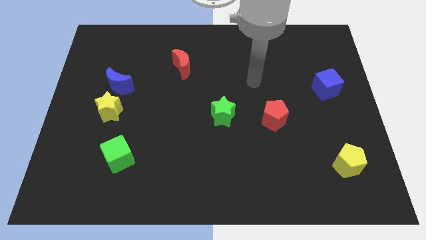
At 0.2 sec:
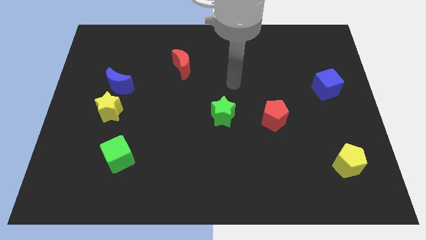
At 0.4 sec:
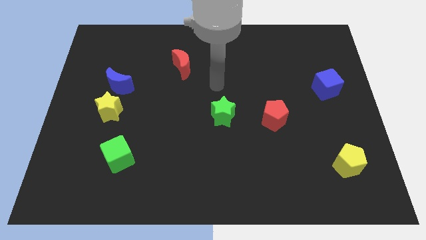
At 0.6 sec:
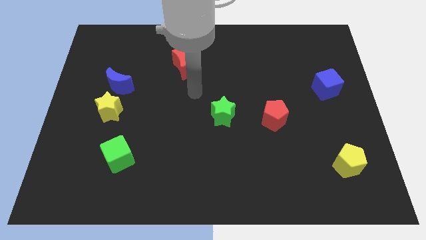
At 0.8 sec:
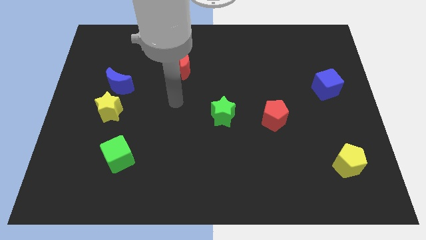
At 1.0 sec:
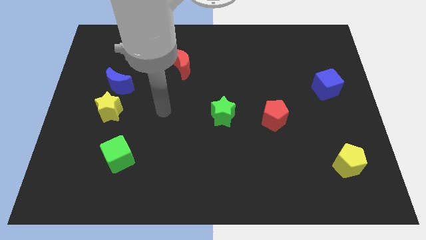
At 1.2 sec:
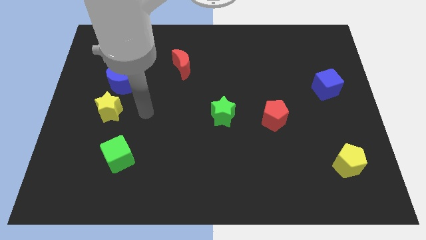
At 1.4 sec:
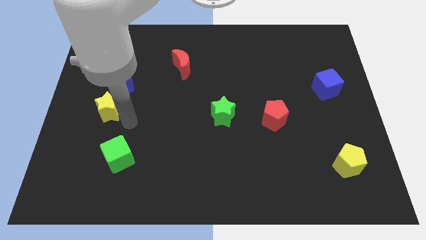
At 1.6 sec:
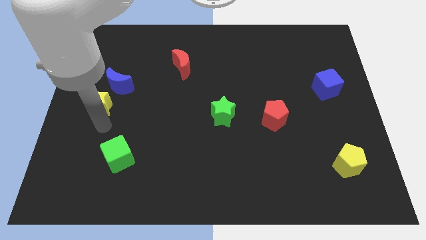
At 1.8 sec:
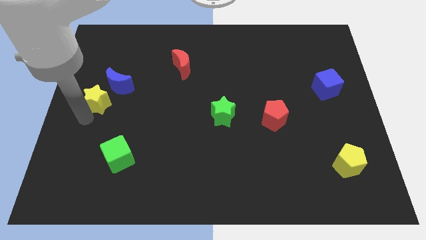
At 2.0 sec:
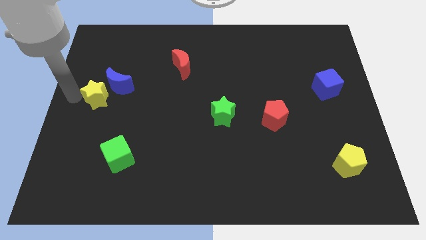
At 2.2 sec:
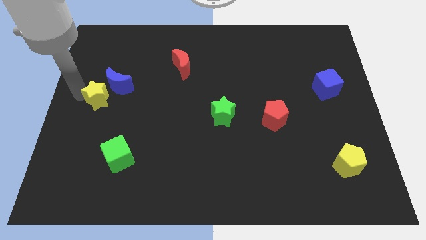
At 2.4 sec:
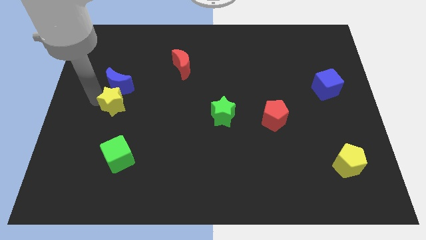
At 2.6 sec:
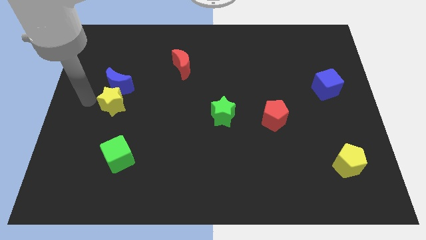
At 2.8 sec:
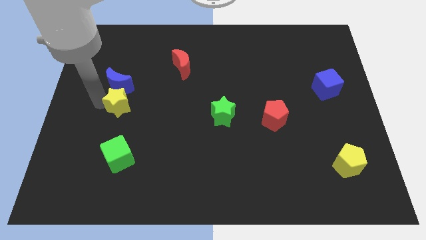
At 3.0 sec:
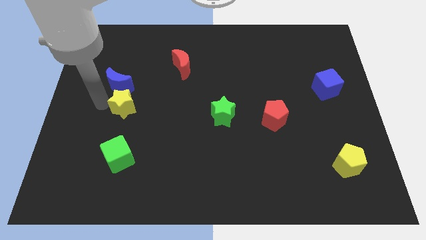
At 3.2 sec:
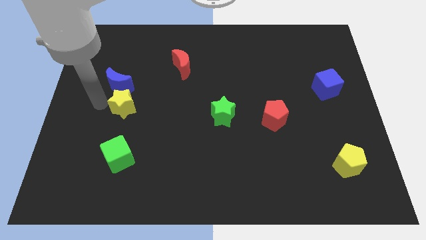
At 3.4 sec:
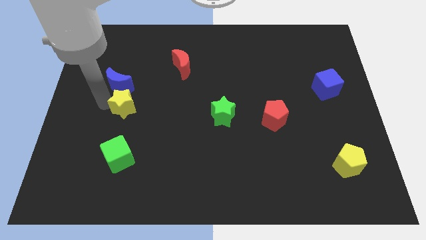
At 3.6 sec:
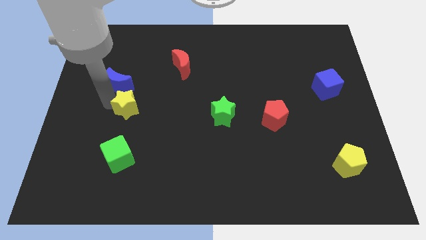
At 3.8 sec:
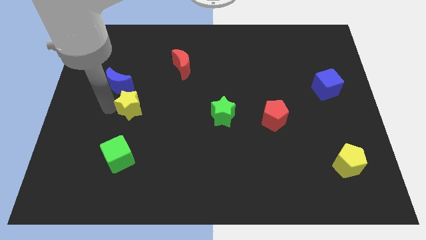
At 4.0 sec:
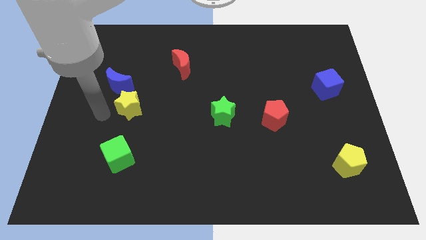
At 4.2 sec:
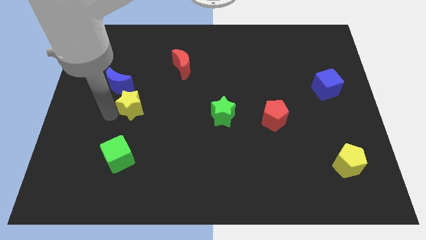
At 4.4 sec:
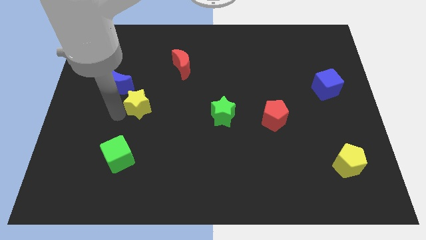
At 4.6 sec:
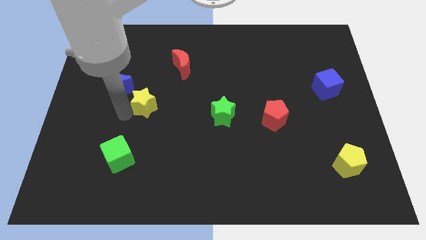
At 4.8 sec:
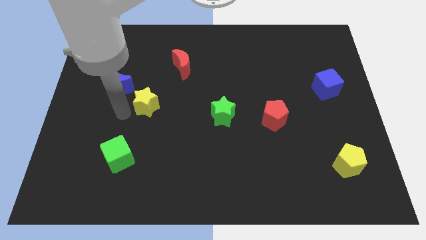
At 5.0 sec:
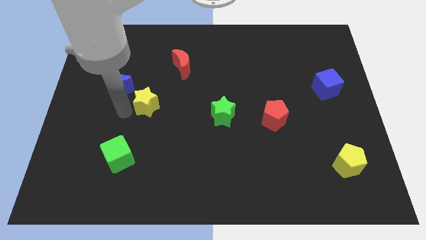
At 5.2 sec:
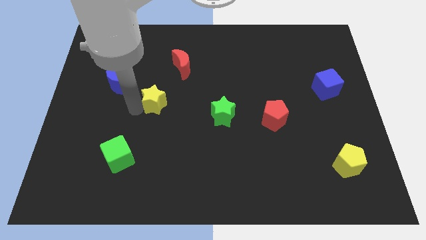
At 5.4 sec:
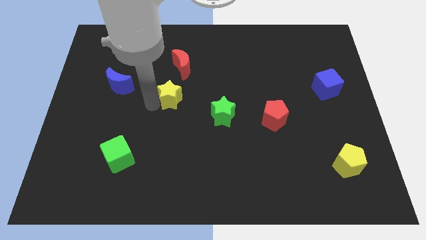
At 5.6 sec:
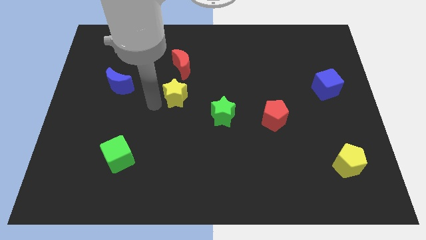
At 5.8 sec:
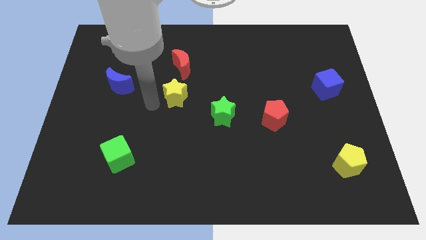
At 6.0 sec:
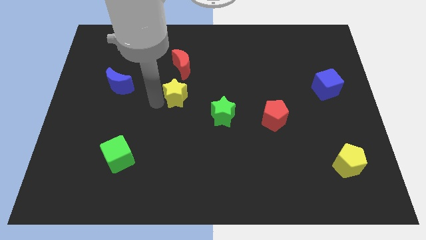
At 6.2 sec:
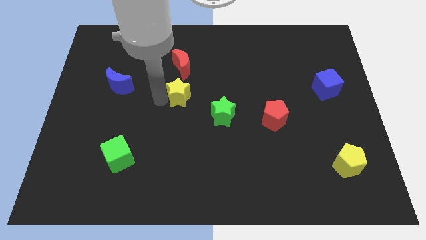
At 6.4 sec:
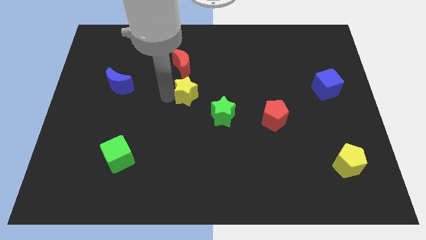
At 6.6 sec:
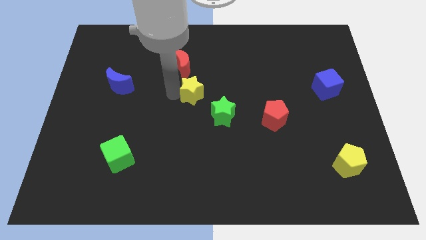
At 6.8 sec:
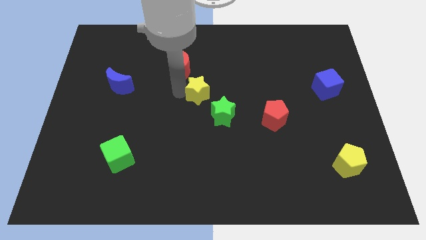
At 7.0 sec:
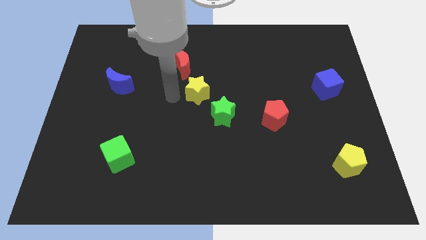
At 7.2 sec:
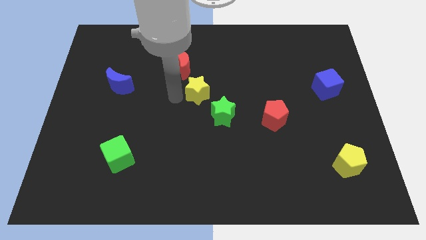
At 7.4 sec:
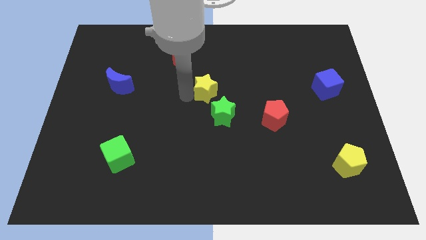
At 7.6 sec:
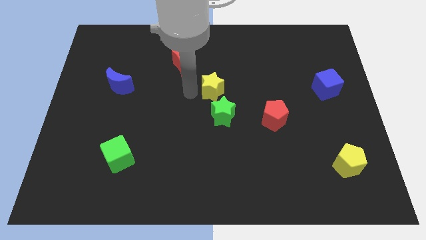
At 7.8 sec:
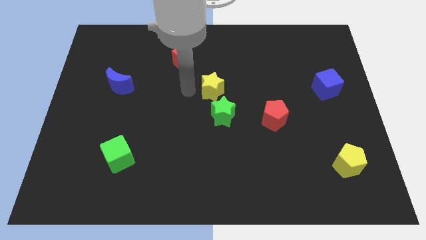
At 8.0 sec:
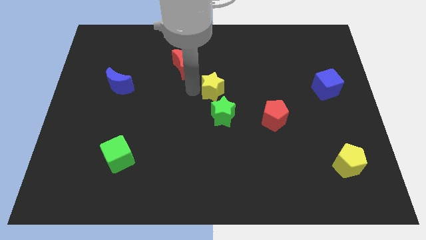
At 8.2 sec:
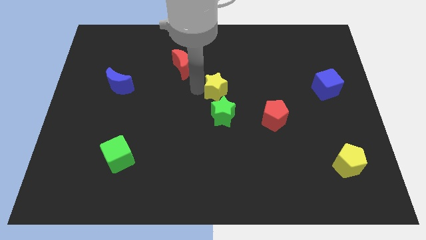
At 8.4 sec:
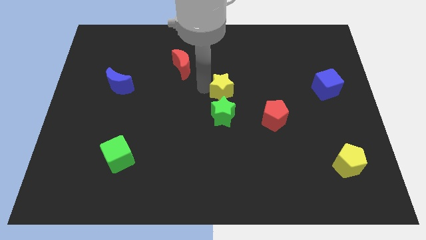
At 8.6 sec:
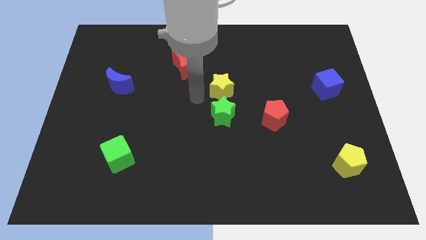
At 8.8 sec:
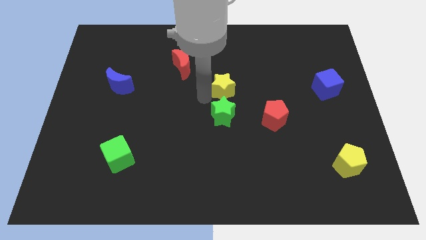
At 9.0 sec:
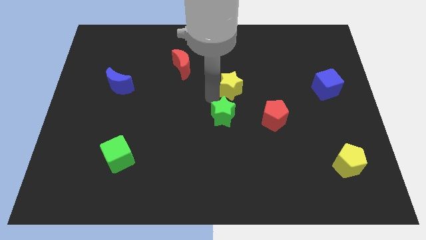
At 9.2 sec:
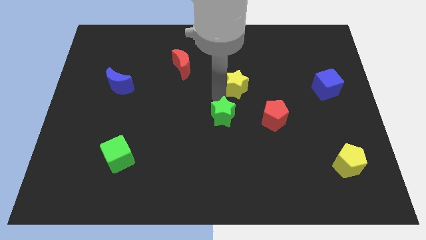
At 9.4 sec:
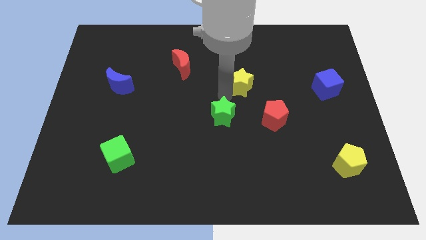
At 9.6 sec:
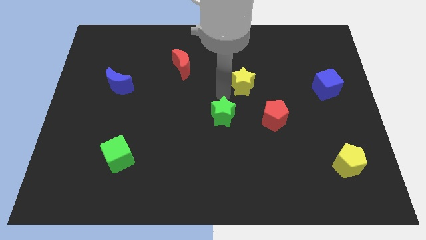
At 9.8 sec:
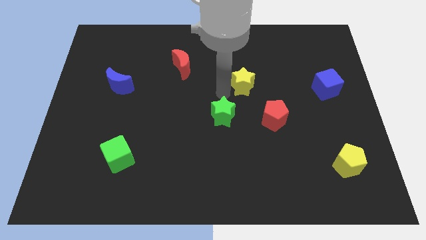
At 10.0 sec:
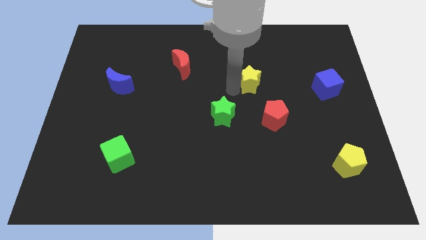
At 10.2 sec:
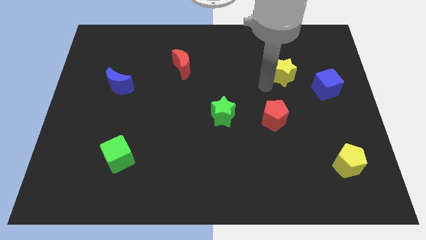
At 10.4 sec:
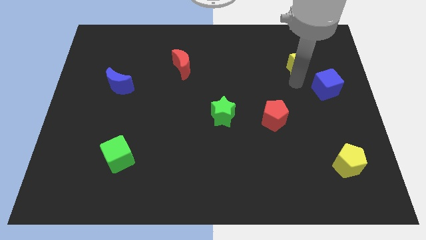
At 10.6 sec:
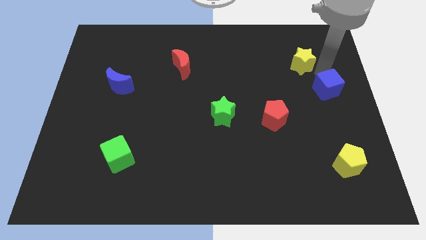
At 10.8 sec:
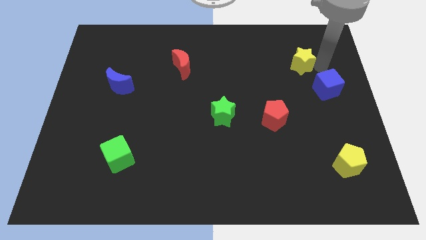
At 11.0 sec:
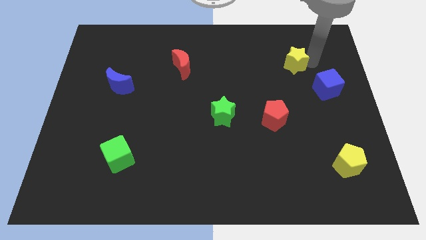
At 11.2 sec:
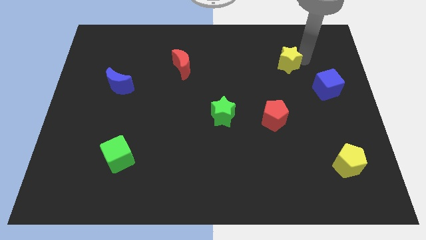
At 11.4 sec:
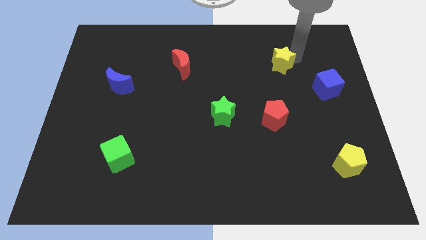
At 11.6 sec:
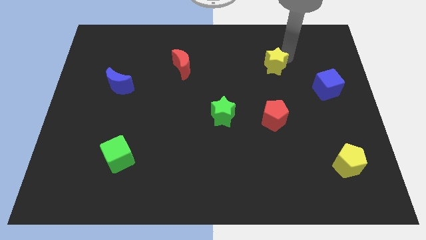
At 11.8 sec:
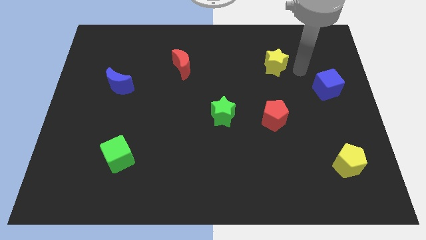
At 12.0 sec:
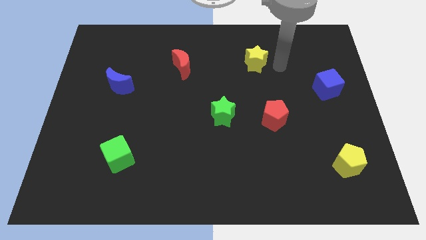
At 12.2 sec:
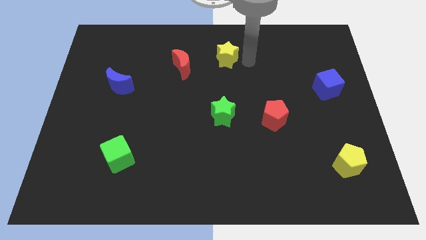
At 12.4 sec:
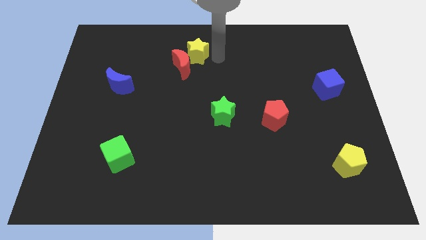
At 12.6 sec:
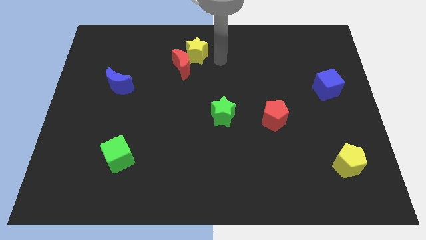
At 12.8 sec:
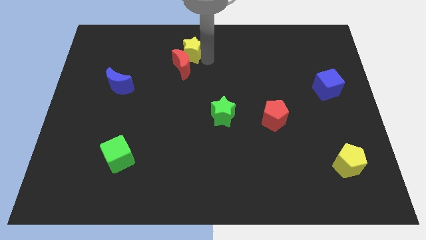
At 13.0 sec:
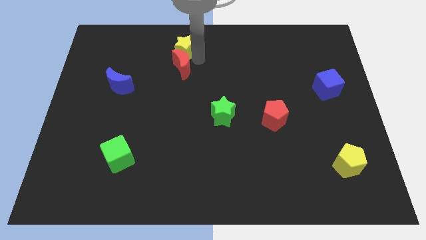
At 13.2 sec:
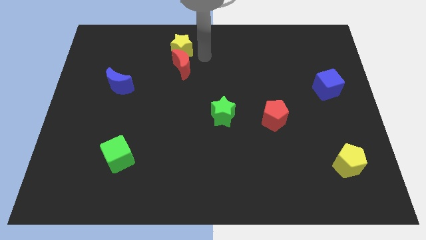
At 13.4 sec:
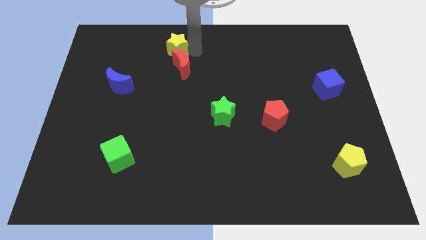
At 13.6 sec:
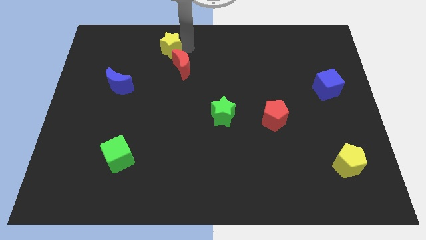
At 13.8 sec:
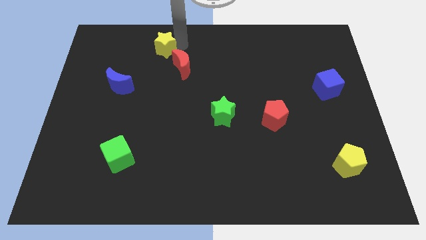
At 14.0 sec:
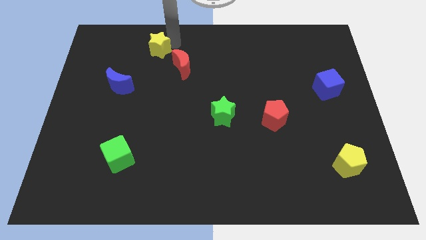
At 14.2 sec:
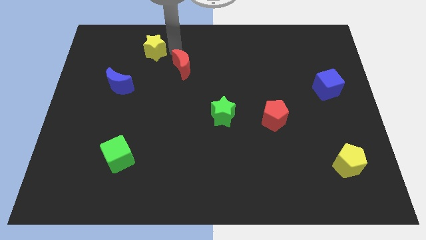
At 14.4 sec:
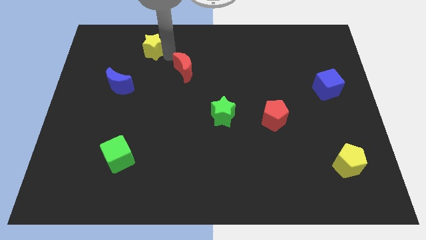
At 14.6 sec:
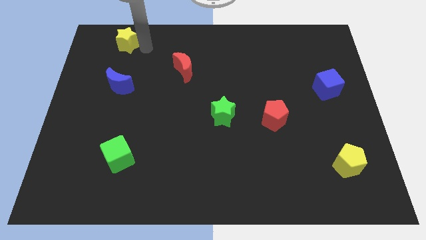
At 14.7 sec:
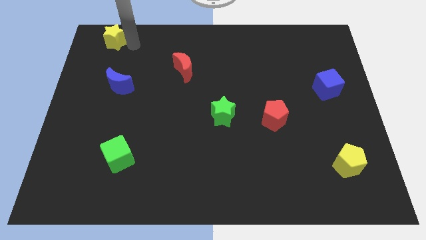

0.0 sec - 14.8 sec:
put the yellow star to the top left corner
